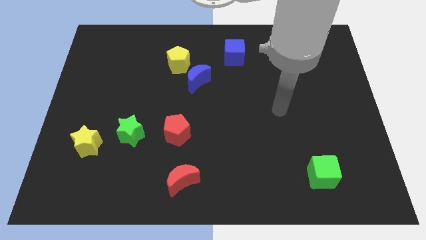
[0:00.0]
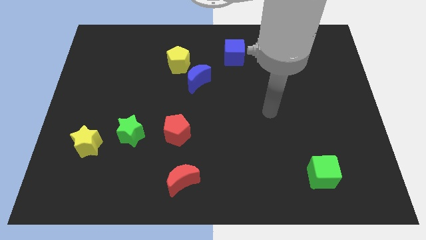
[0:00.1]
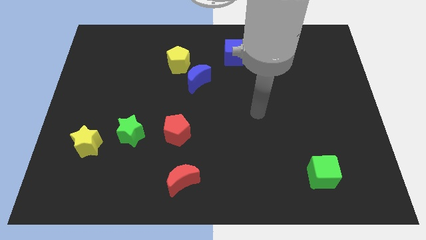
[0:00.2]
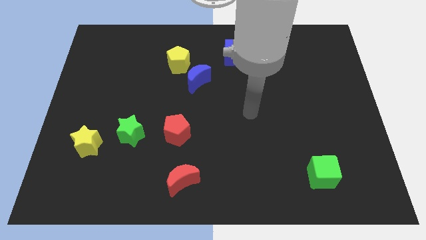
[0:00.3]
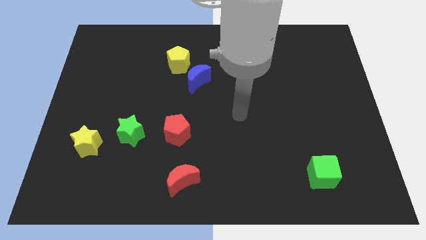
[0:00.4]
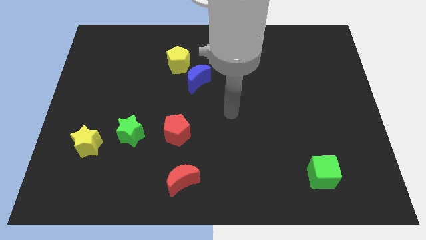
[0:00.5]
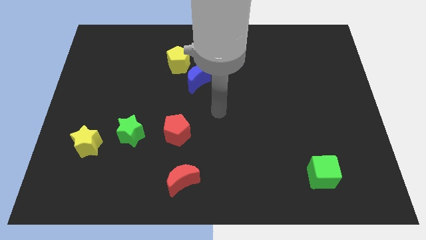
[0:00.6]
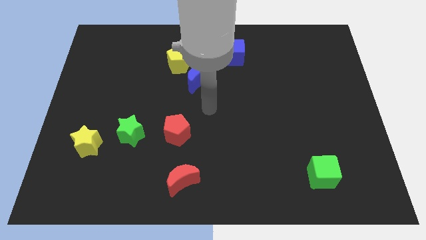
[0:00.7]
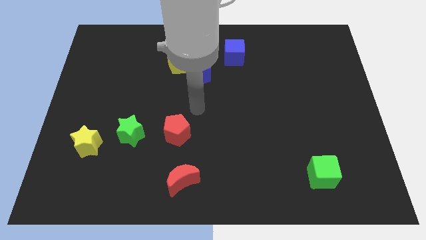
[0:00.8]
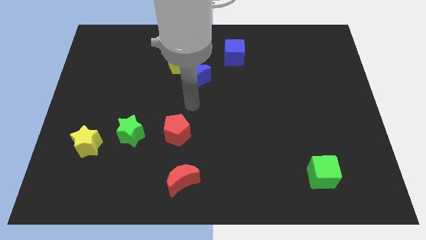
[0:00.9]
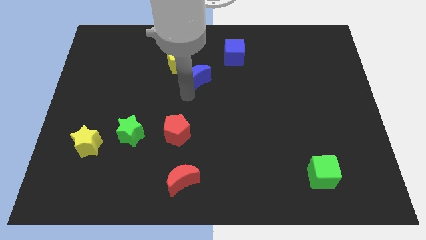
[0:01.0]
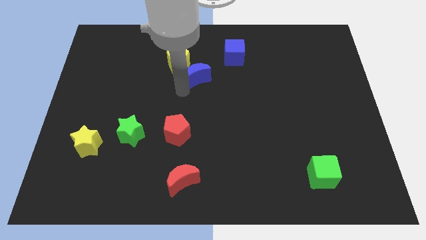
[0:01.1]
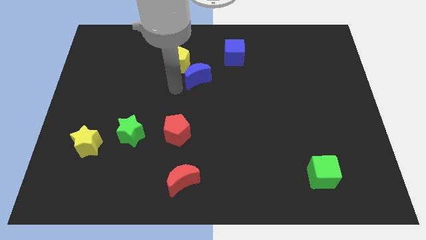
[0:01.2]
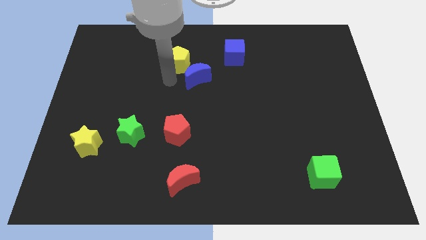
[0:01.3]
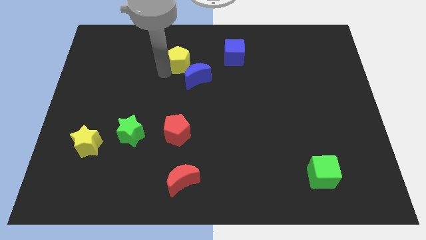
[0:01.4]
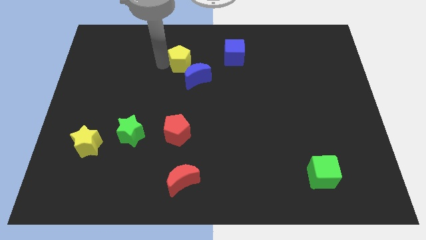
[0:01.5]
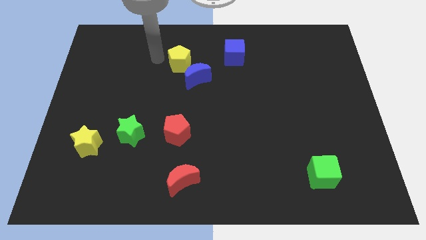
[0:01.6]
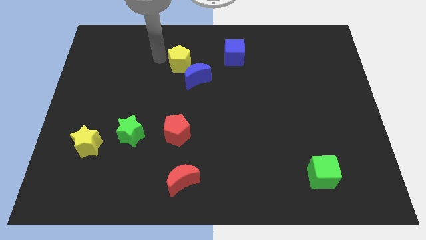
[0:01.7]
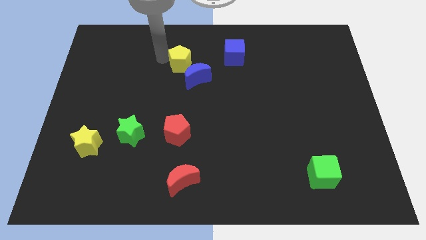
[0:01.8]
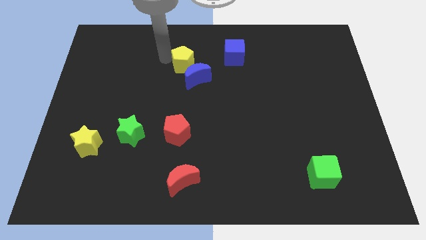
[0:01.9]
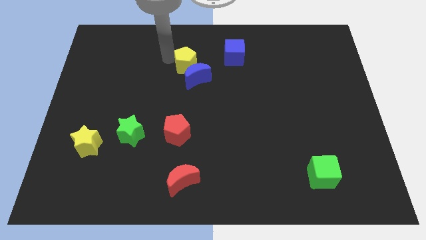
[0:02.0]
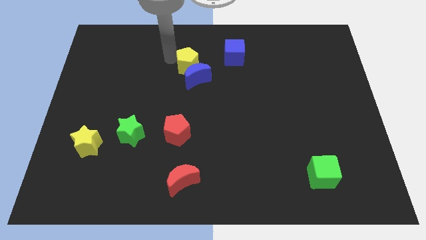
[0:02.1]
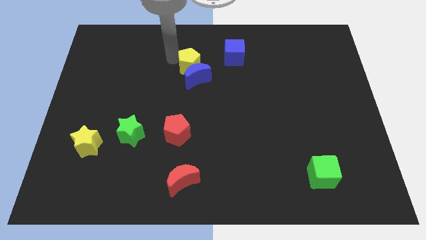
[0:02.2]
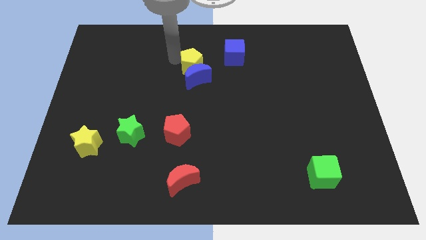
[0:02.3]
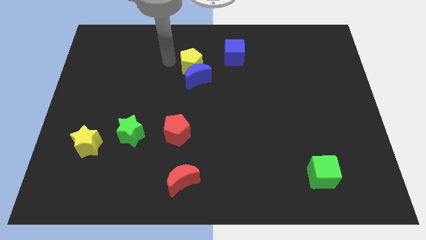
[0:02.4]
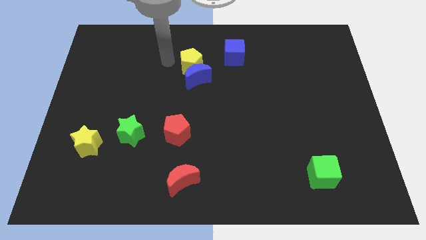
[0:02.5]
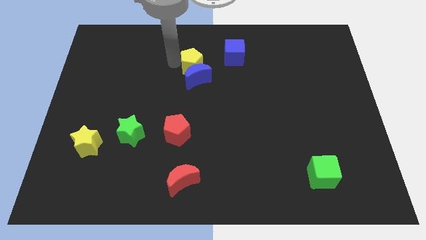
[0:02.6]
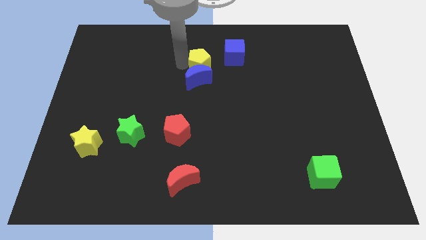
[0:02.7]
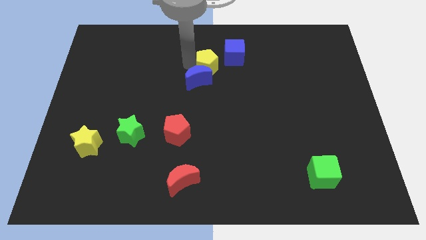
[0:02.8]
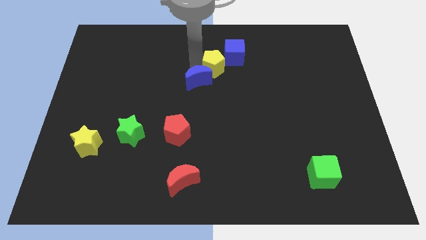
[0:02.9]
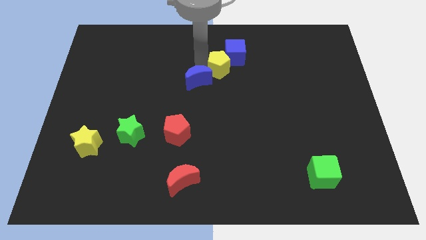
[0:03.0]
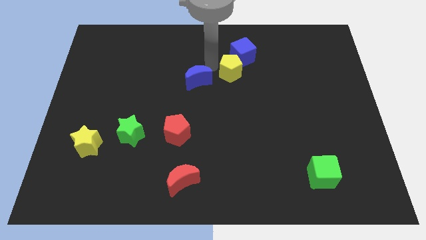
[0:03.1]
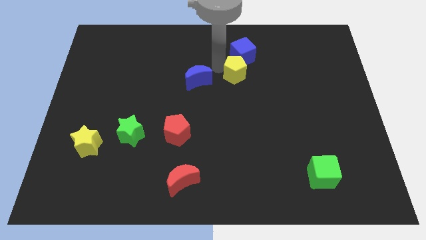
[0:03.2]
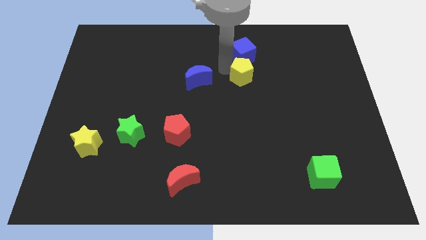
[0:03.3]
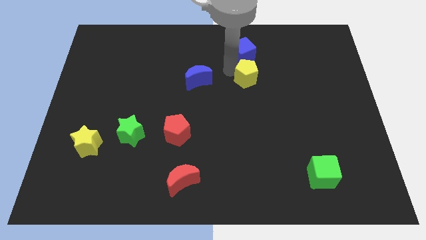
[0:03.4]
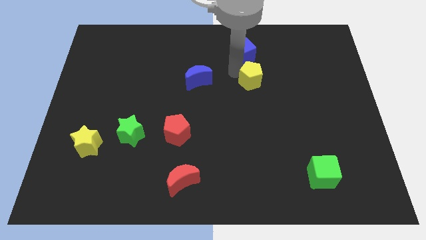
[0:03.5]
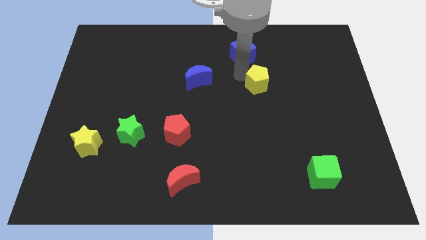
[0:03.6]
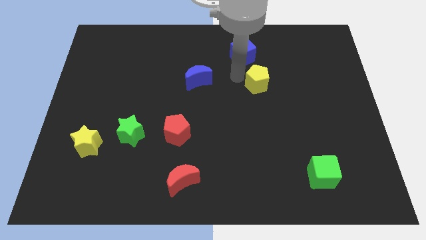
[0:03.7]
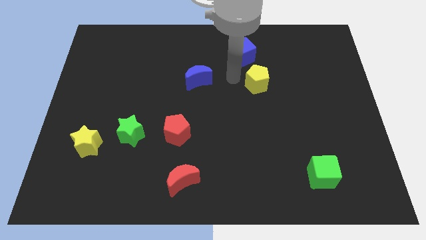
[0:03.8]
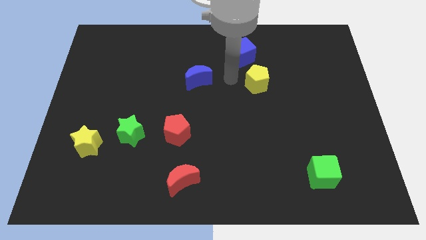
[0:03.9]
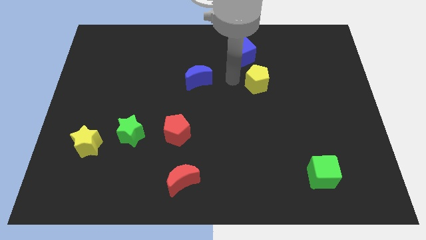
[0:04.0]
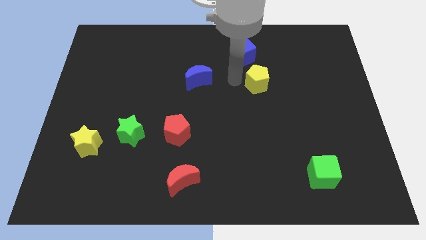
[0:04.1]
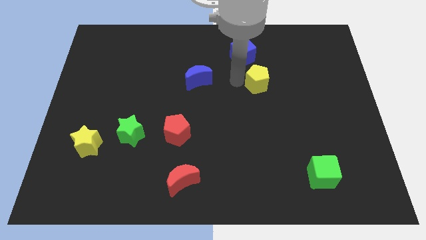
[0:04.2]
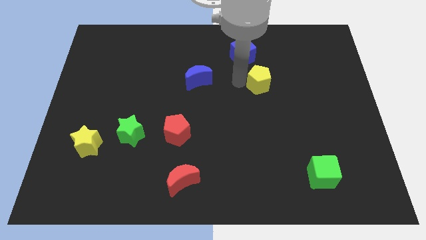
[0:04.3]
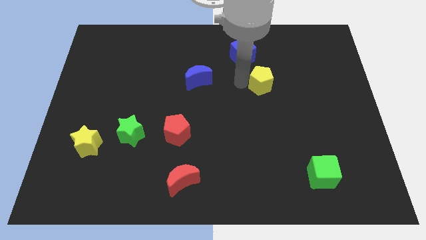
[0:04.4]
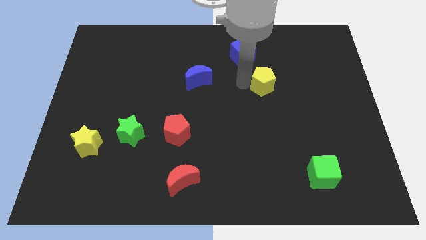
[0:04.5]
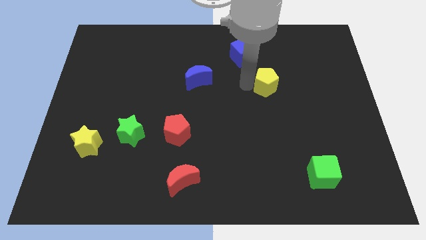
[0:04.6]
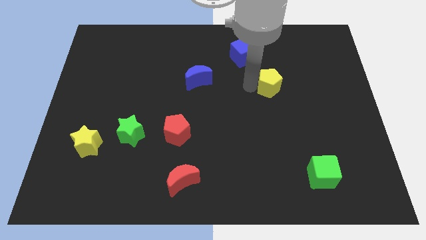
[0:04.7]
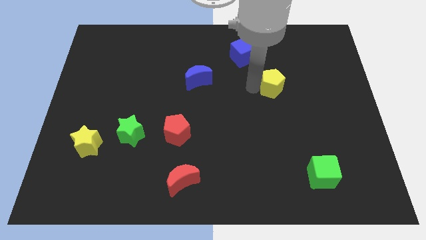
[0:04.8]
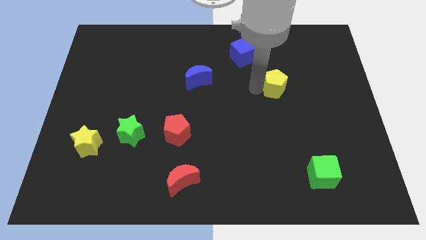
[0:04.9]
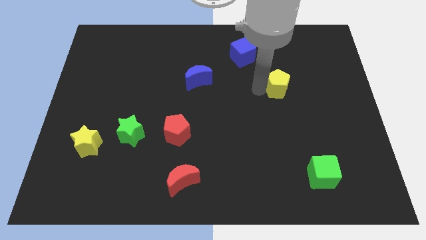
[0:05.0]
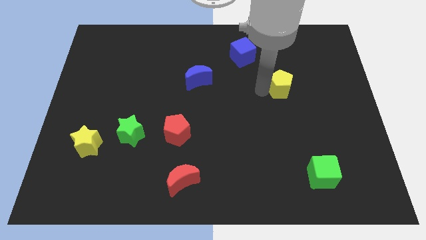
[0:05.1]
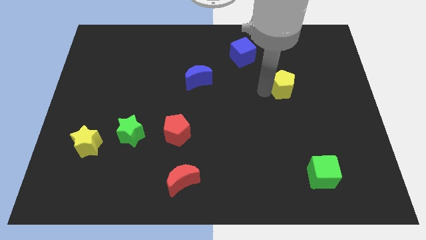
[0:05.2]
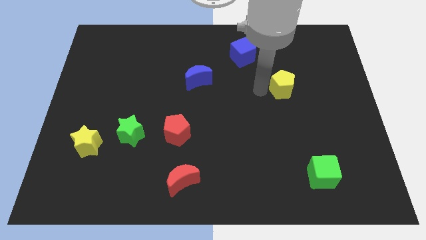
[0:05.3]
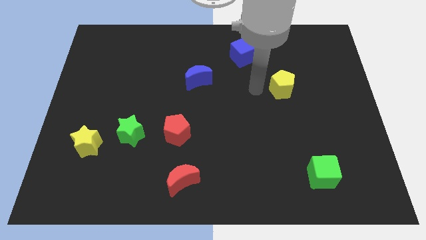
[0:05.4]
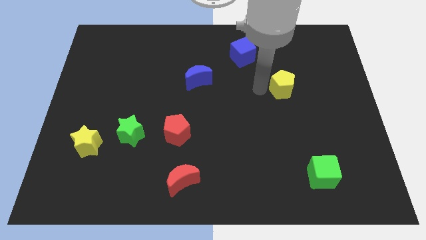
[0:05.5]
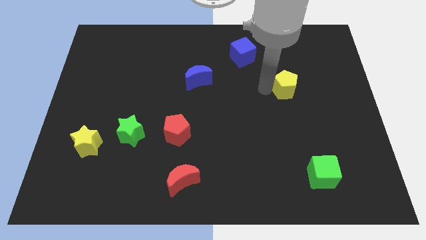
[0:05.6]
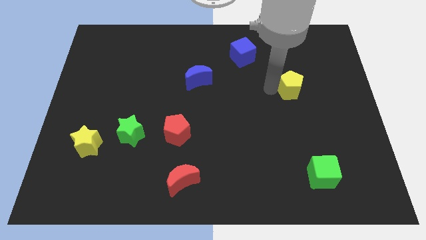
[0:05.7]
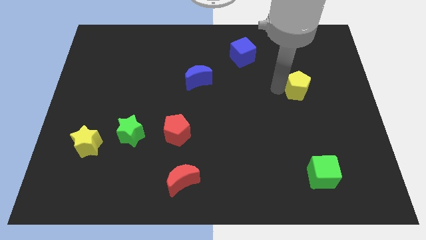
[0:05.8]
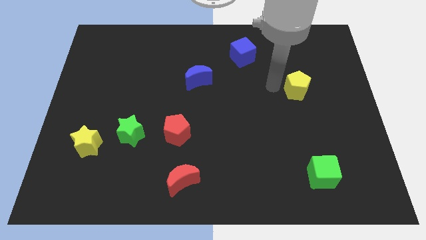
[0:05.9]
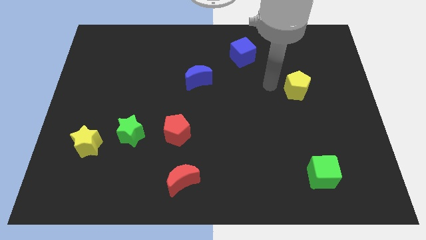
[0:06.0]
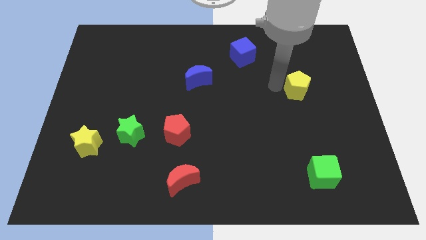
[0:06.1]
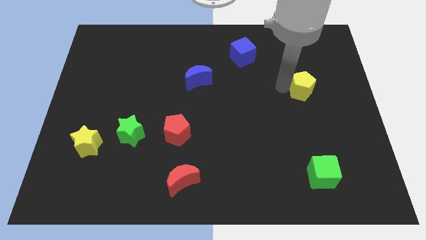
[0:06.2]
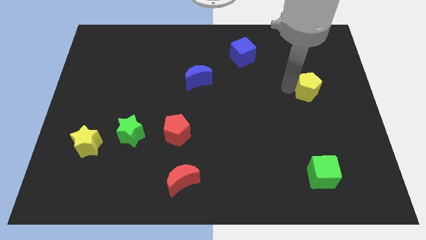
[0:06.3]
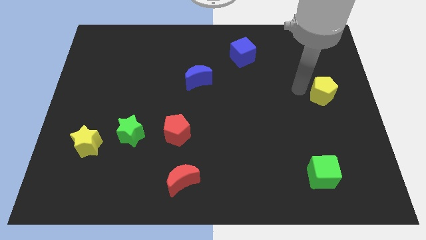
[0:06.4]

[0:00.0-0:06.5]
put the yellow pentagon to the right side
